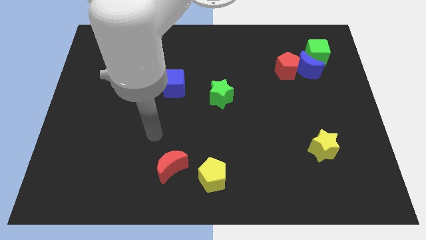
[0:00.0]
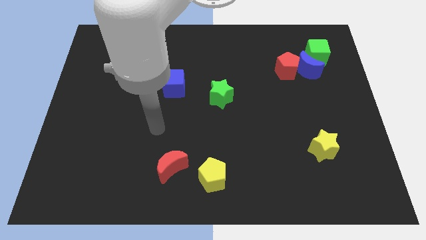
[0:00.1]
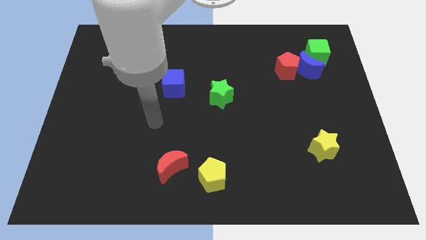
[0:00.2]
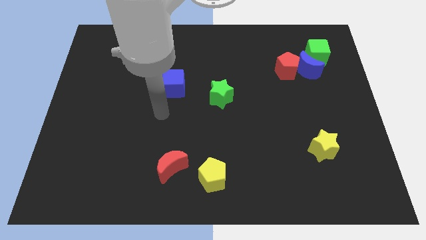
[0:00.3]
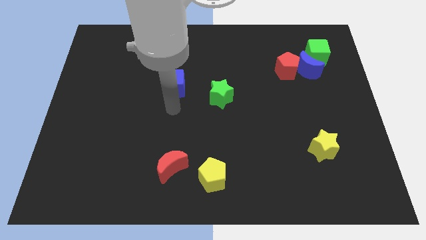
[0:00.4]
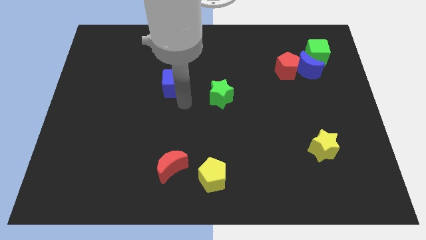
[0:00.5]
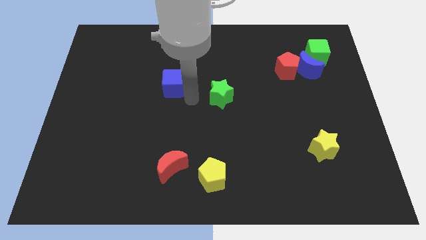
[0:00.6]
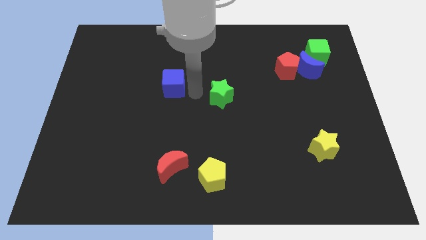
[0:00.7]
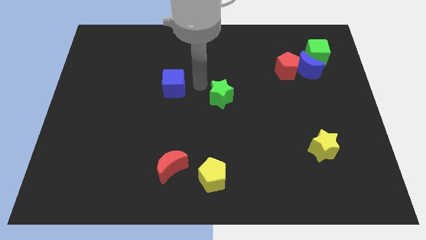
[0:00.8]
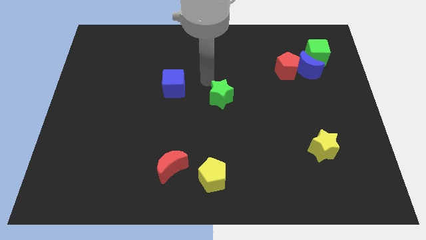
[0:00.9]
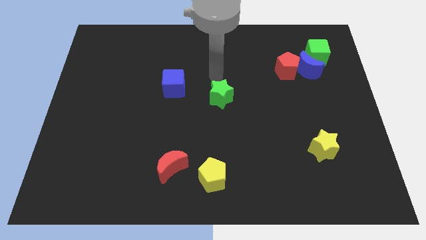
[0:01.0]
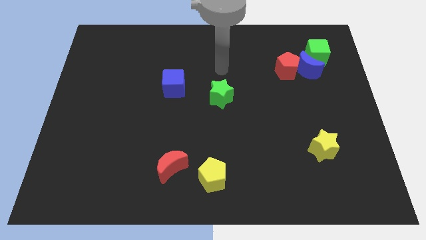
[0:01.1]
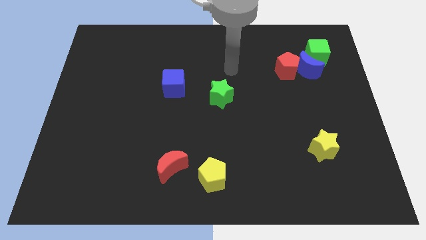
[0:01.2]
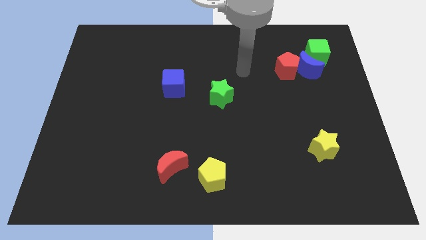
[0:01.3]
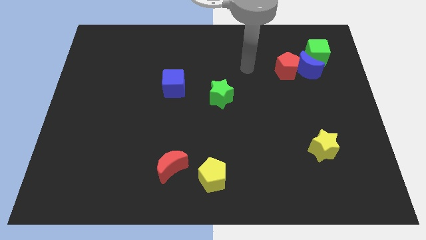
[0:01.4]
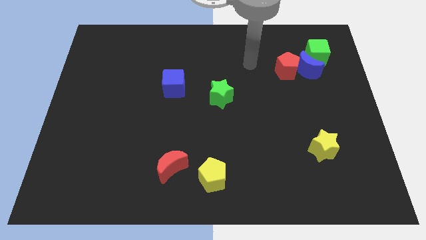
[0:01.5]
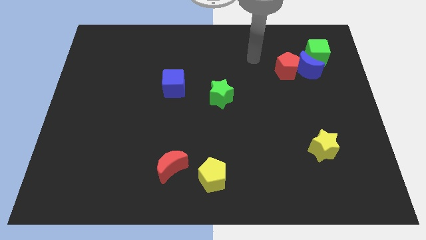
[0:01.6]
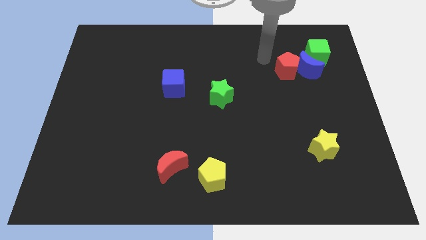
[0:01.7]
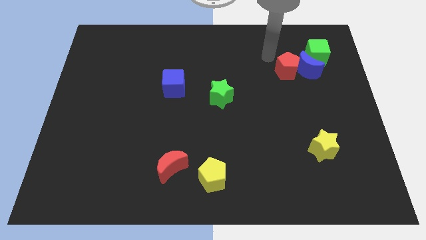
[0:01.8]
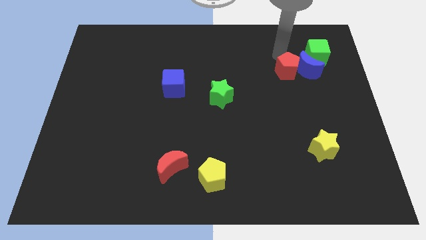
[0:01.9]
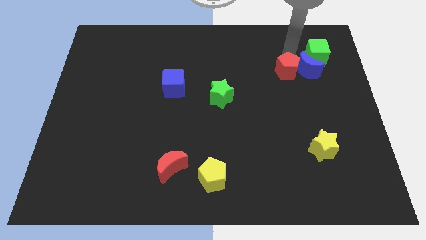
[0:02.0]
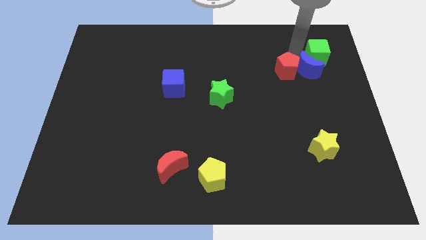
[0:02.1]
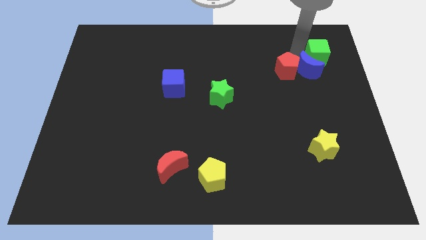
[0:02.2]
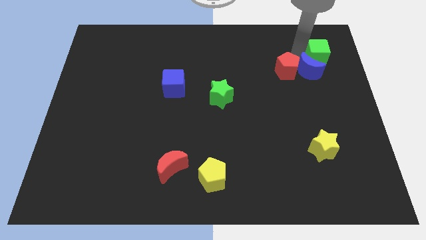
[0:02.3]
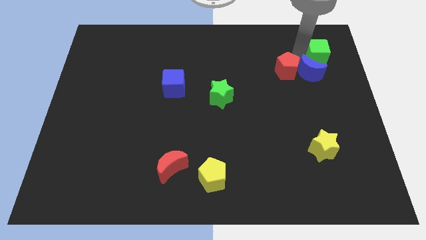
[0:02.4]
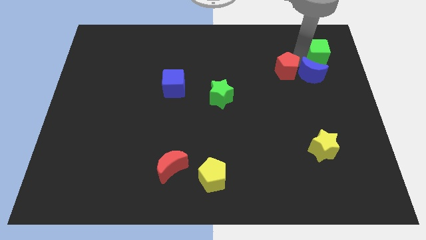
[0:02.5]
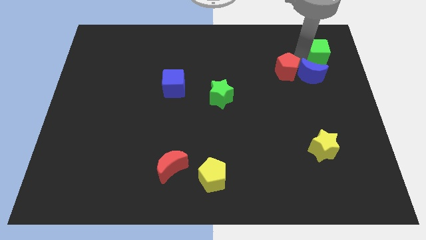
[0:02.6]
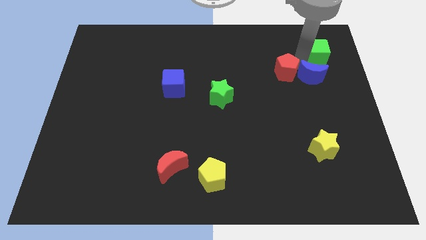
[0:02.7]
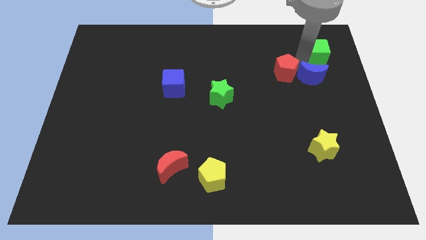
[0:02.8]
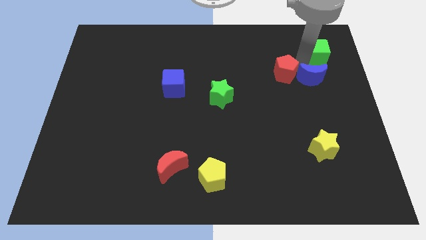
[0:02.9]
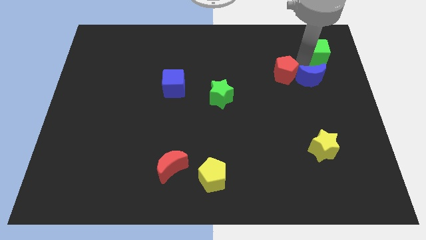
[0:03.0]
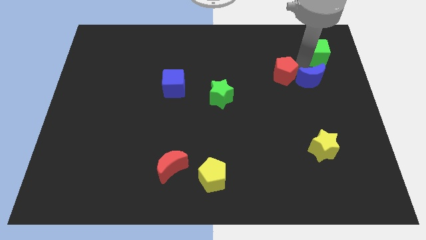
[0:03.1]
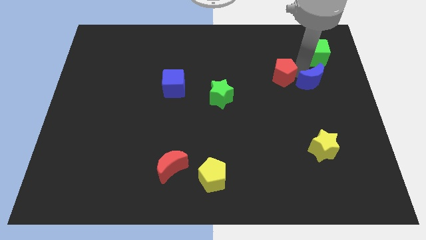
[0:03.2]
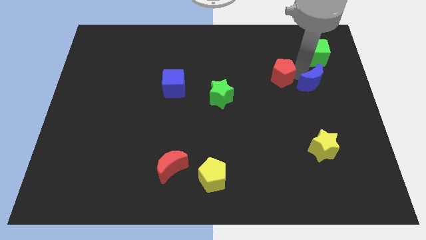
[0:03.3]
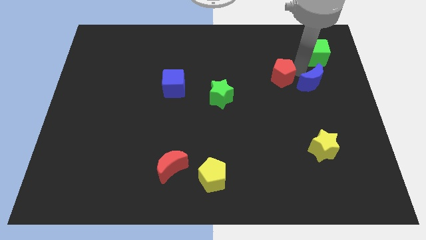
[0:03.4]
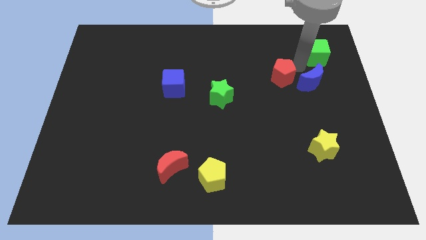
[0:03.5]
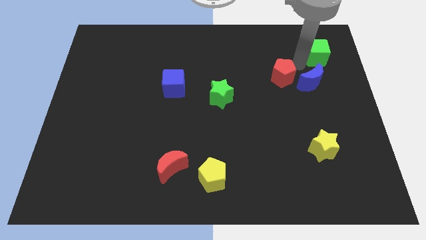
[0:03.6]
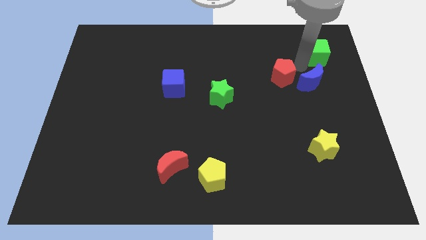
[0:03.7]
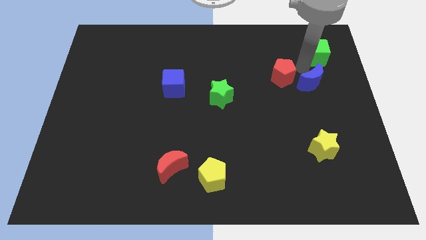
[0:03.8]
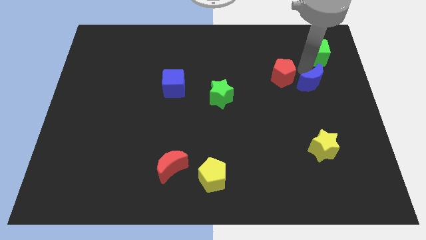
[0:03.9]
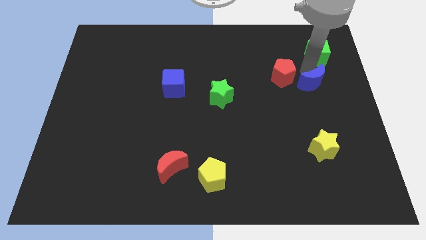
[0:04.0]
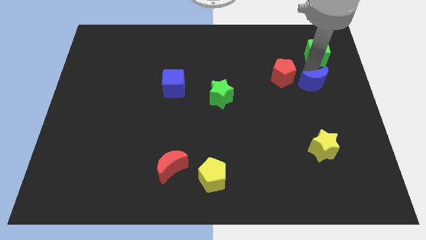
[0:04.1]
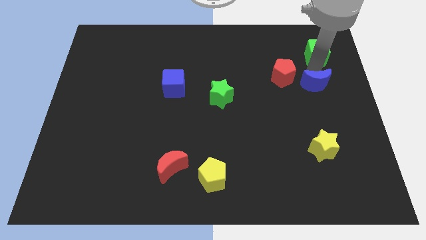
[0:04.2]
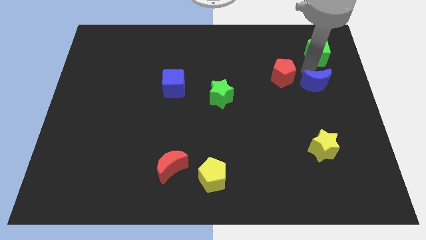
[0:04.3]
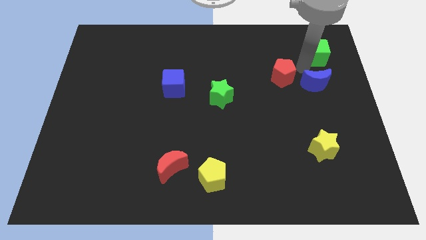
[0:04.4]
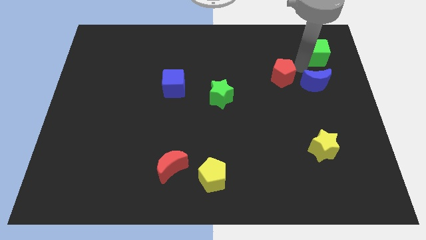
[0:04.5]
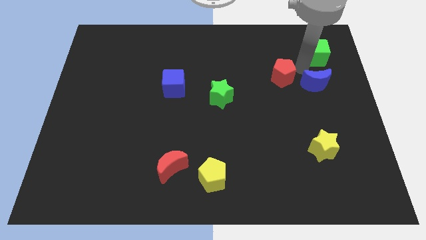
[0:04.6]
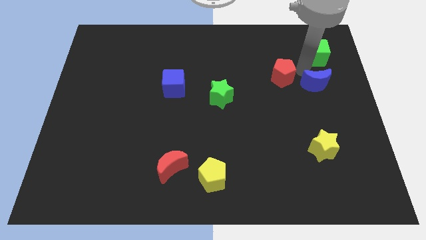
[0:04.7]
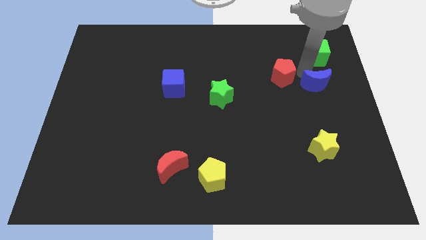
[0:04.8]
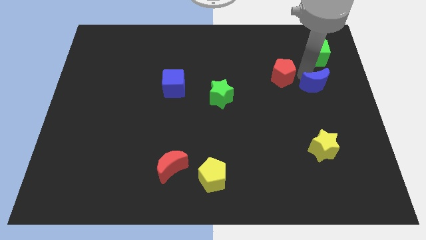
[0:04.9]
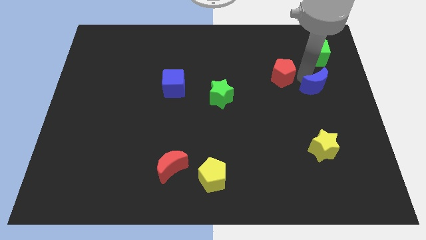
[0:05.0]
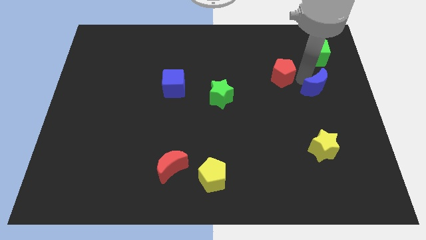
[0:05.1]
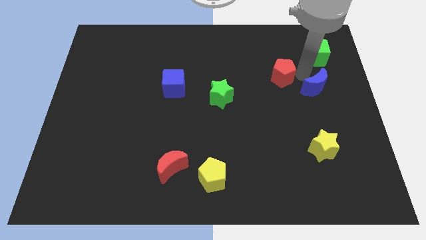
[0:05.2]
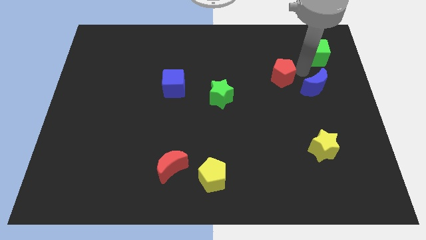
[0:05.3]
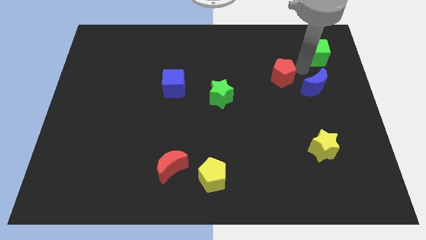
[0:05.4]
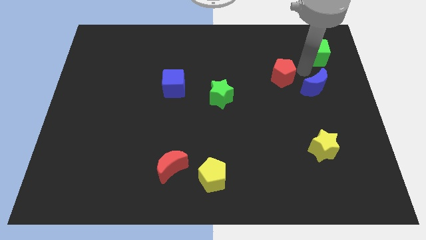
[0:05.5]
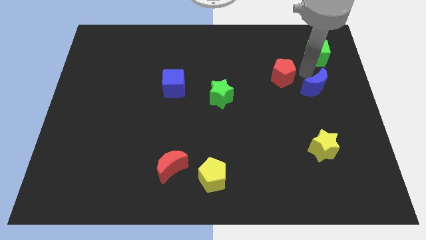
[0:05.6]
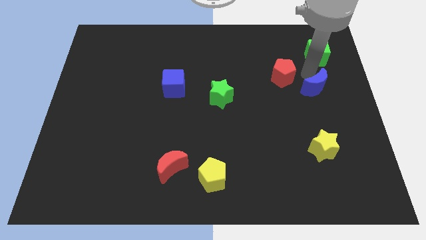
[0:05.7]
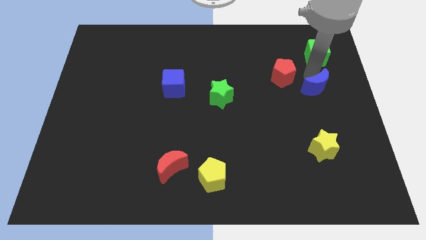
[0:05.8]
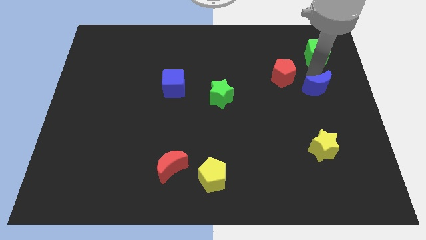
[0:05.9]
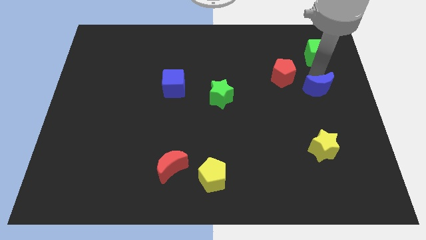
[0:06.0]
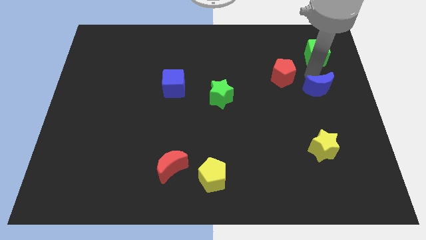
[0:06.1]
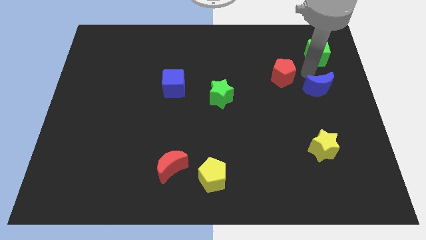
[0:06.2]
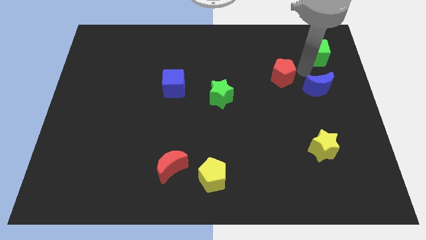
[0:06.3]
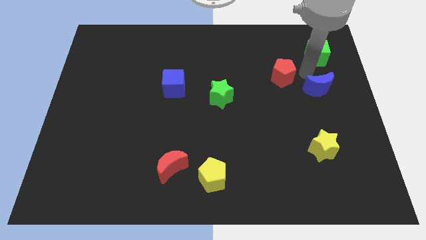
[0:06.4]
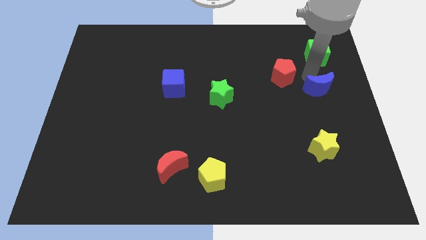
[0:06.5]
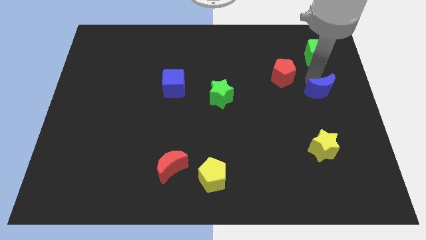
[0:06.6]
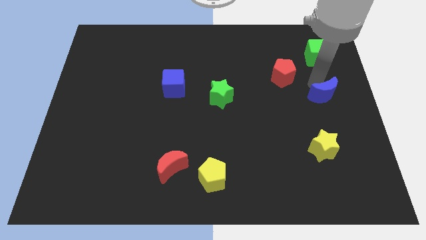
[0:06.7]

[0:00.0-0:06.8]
pull the blue moon apart from the red pentagon and green cube

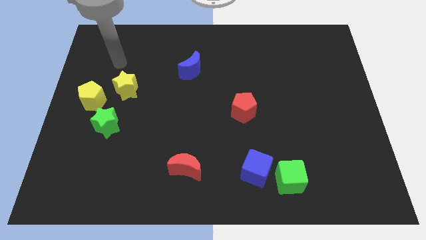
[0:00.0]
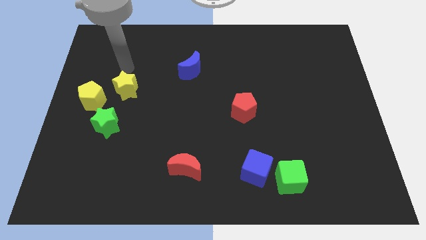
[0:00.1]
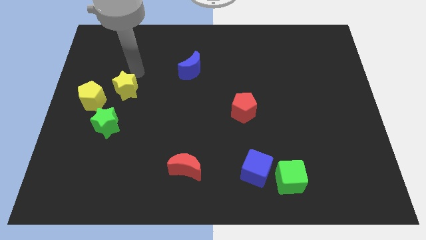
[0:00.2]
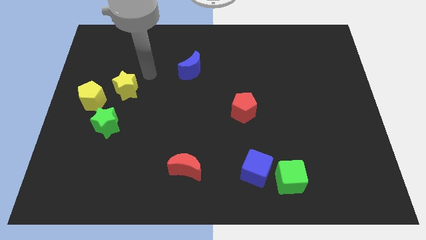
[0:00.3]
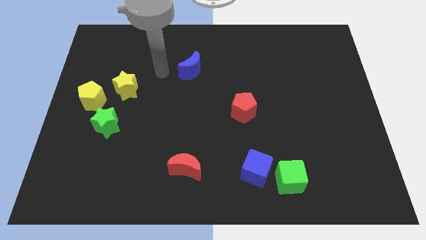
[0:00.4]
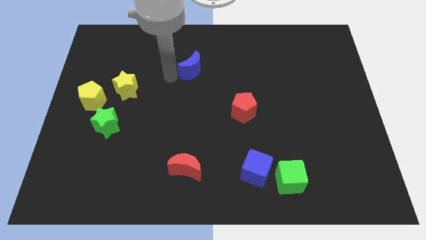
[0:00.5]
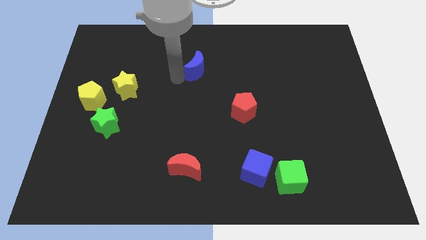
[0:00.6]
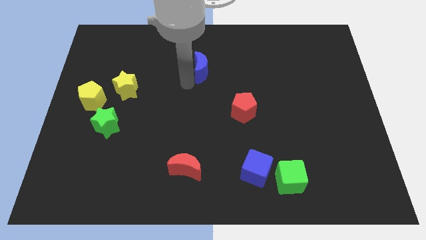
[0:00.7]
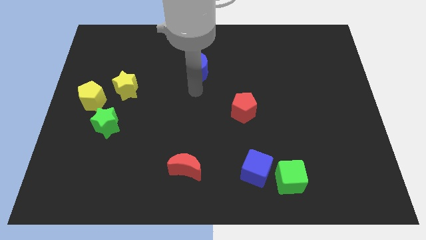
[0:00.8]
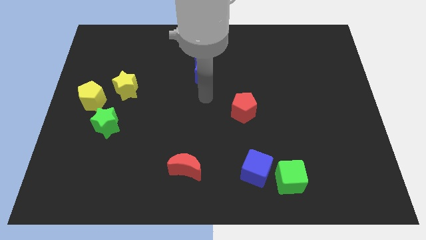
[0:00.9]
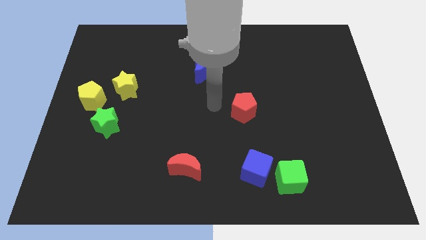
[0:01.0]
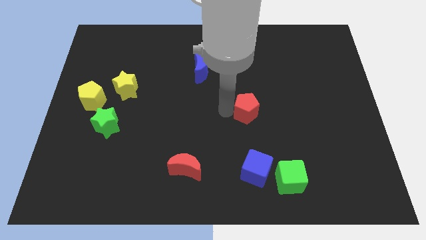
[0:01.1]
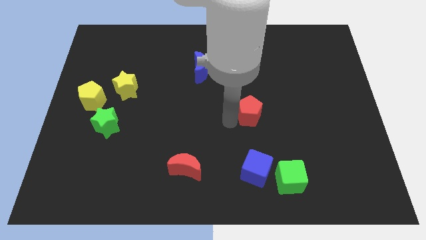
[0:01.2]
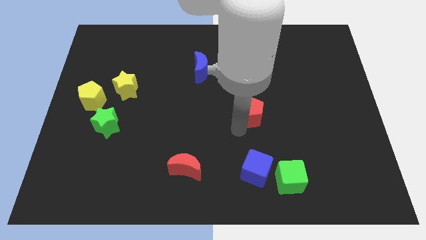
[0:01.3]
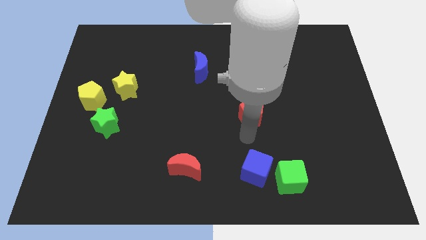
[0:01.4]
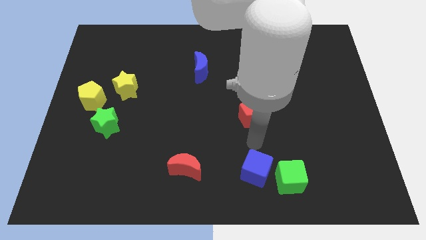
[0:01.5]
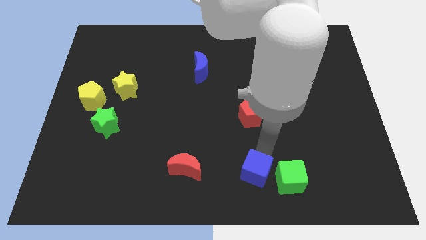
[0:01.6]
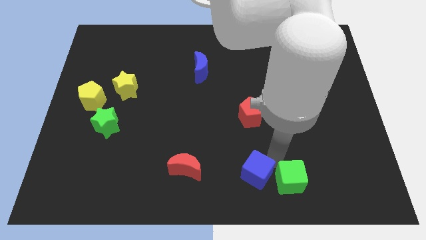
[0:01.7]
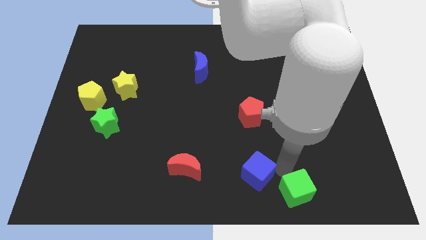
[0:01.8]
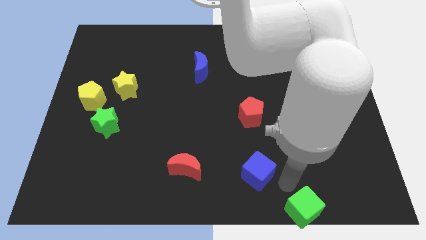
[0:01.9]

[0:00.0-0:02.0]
separate the blue cube from the green cube

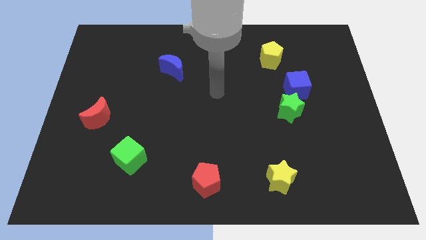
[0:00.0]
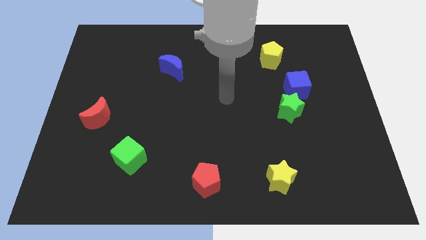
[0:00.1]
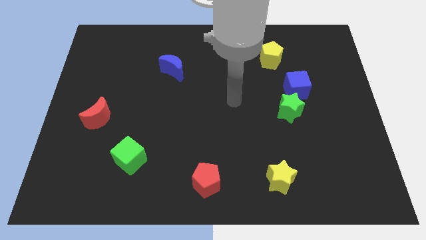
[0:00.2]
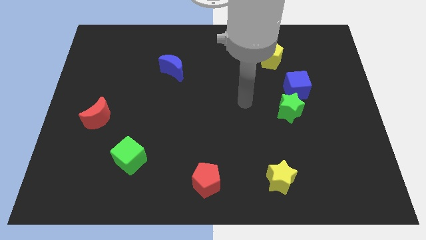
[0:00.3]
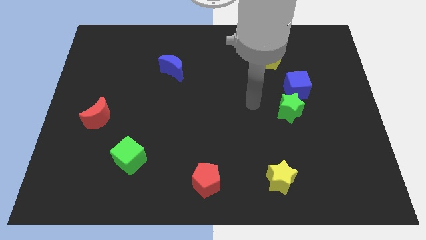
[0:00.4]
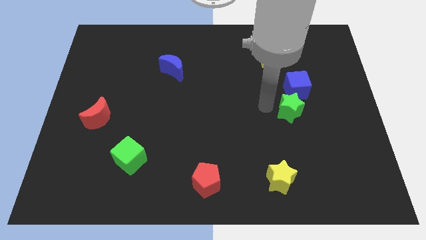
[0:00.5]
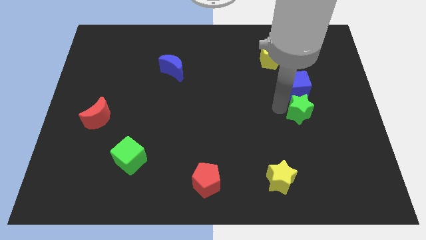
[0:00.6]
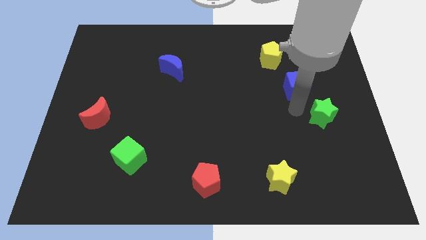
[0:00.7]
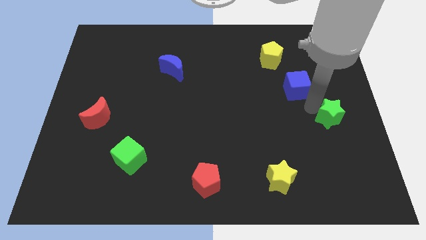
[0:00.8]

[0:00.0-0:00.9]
pull the blue cube apart from the green star
